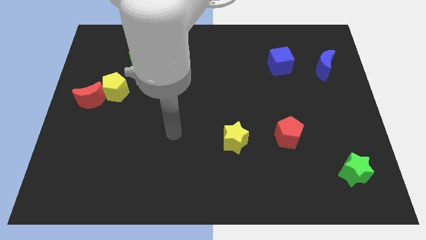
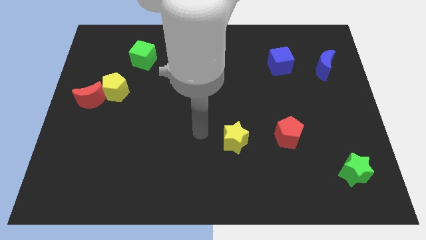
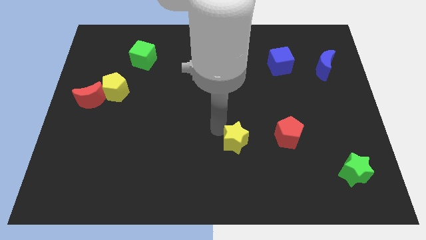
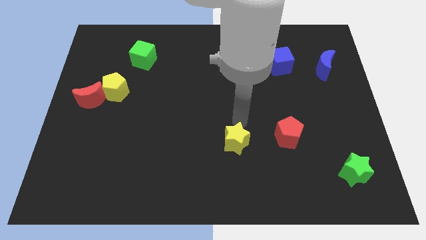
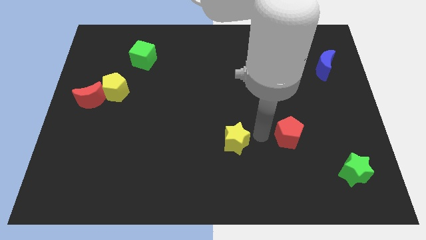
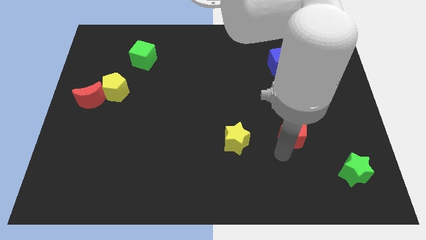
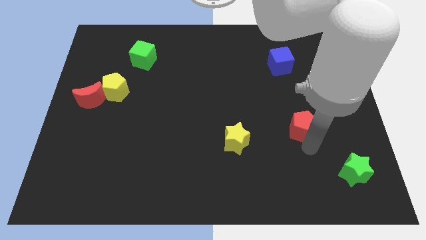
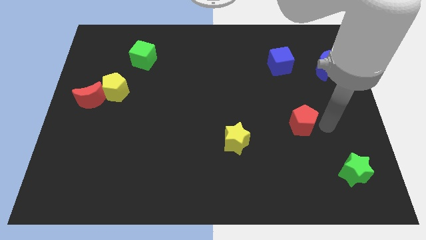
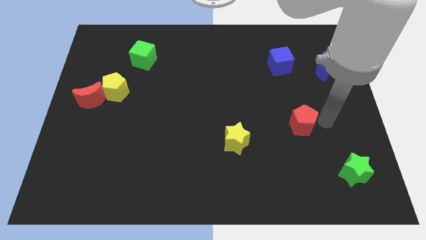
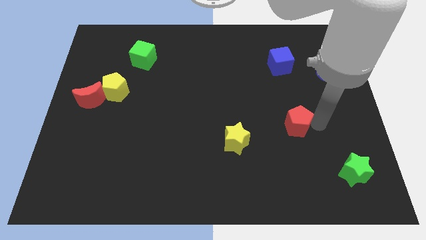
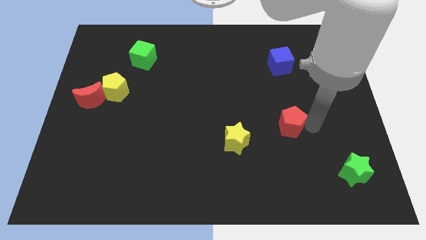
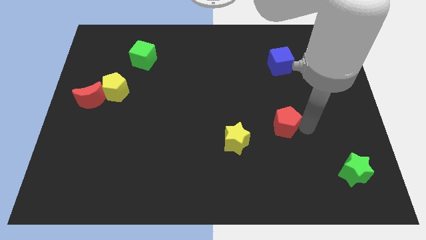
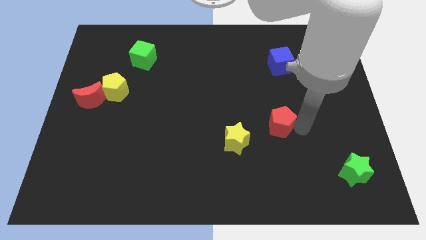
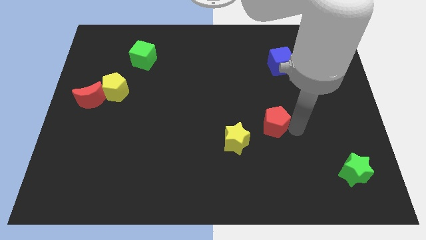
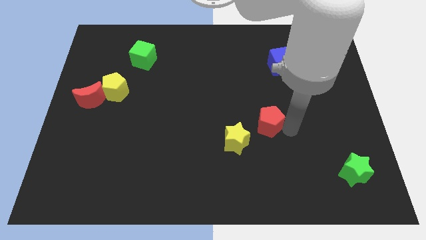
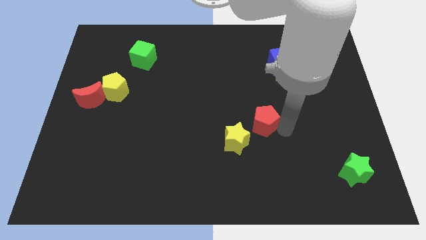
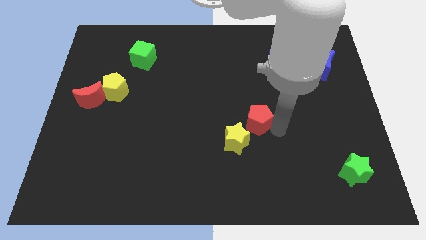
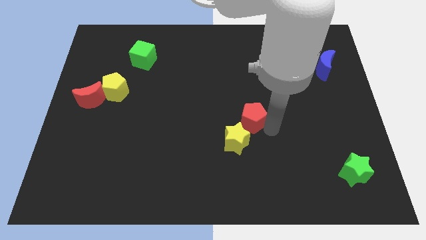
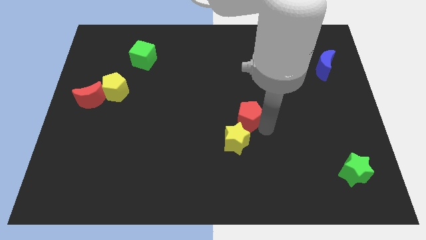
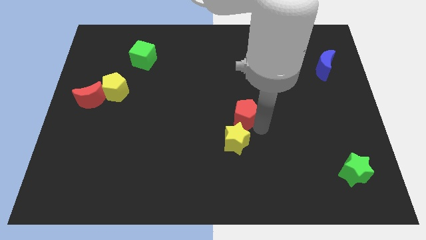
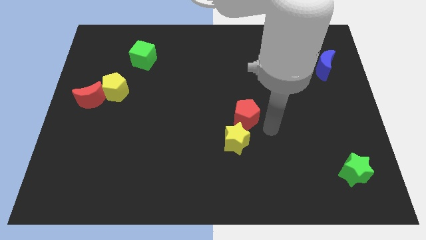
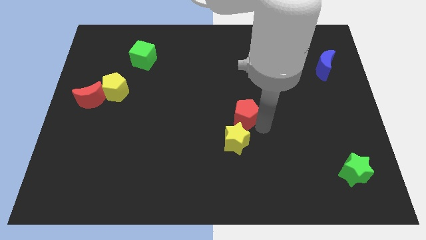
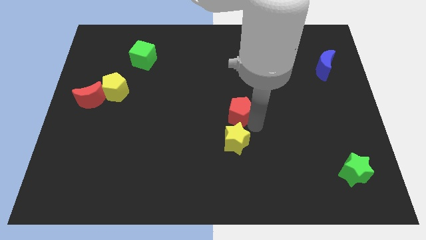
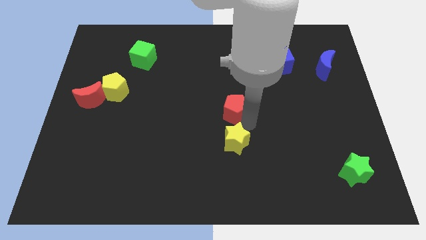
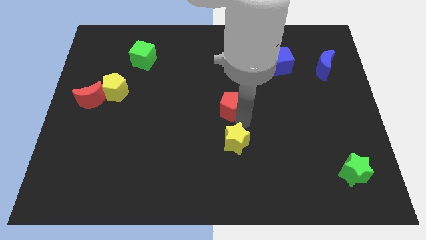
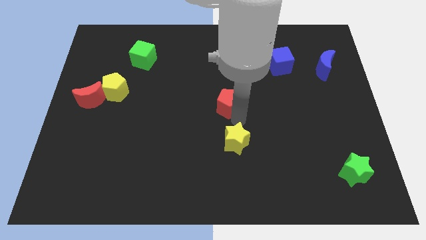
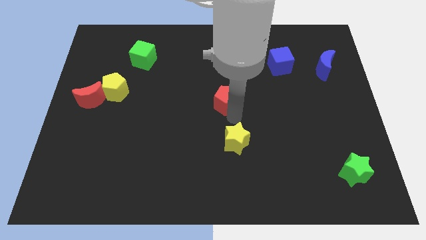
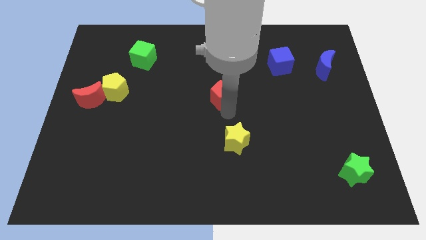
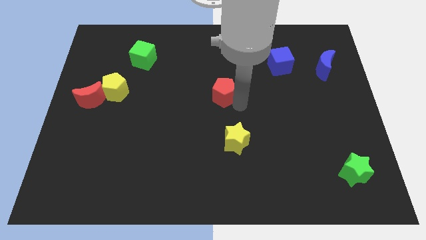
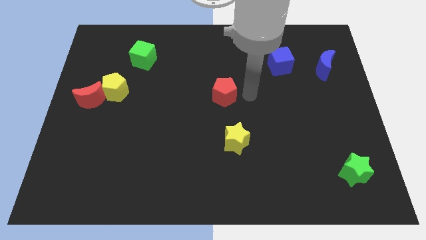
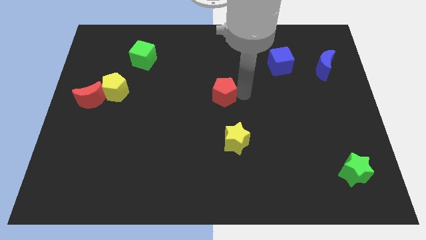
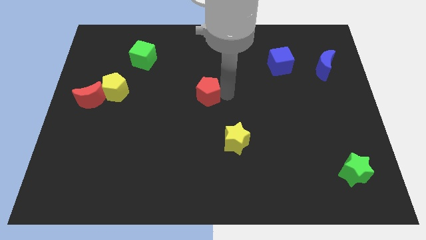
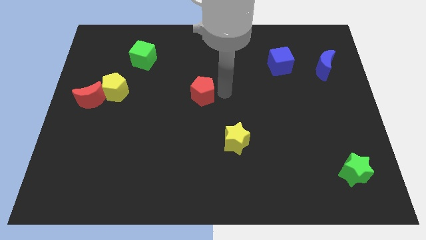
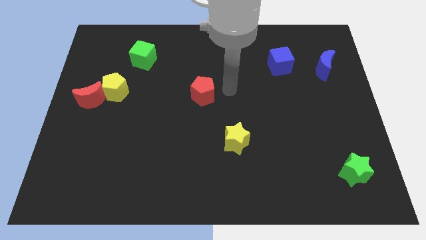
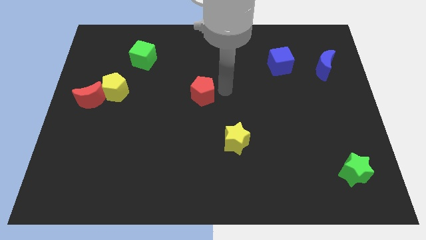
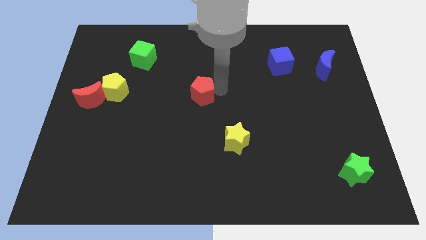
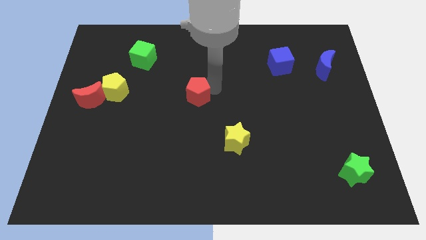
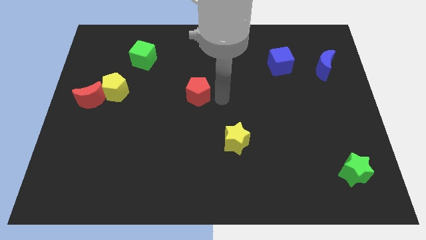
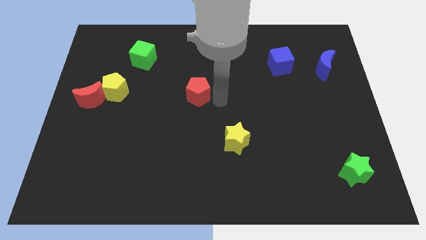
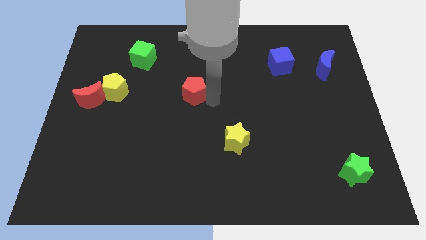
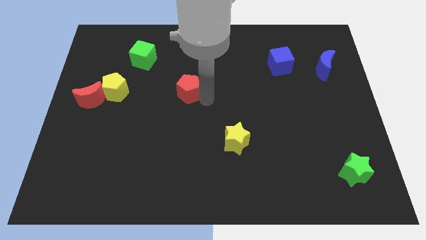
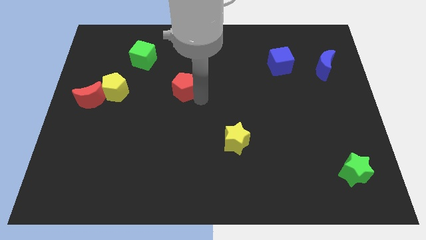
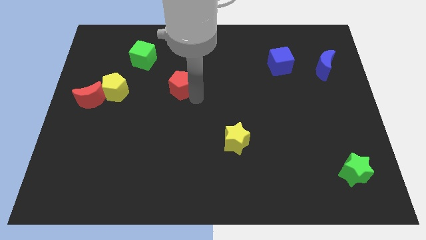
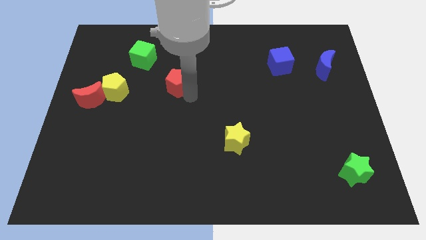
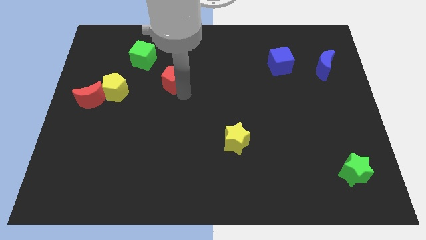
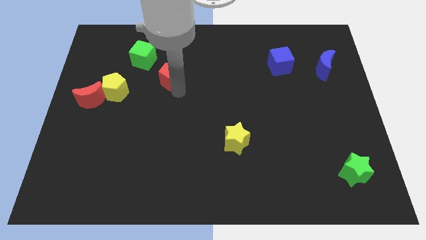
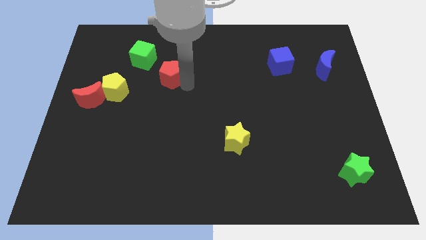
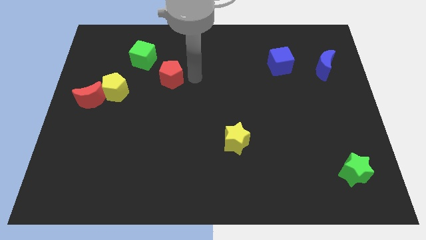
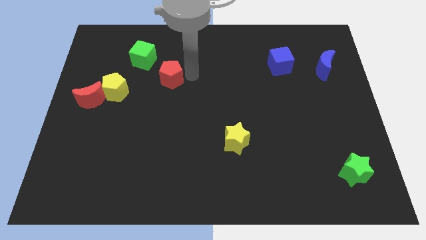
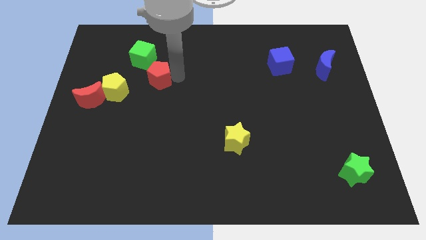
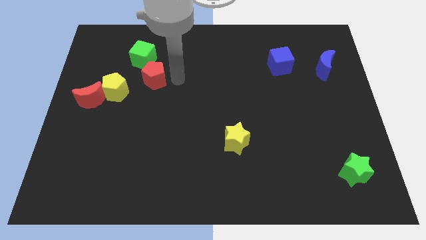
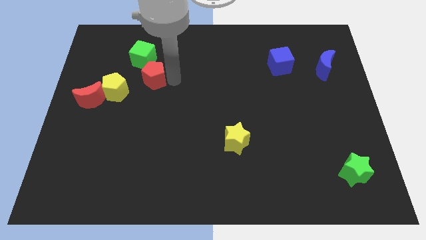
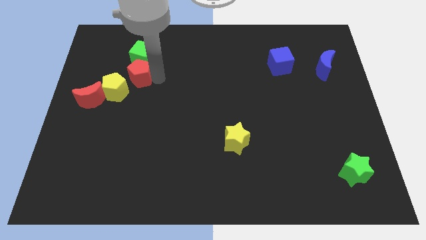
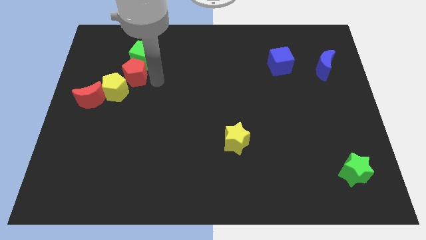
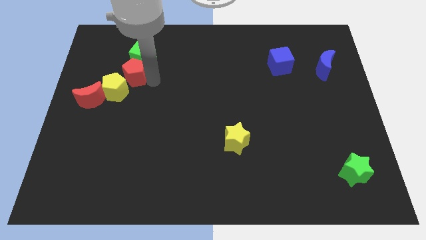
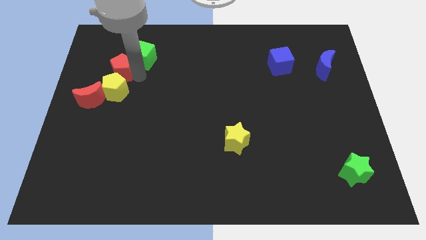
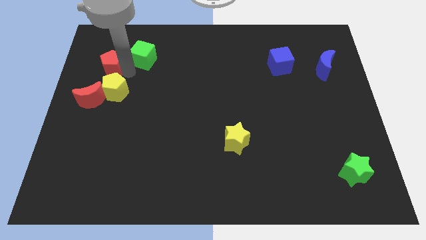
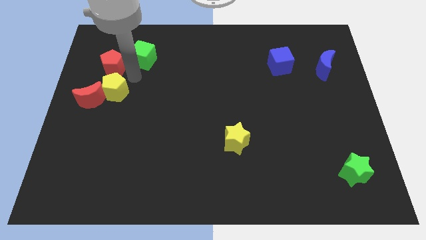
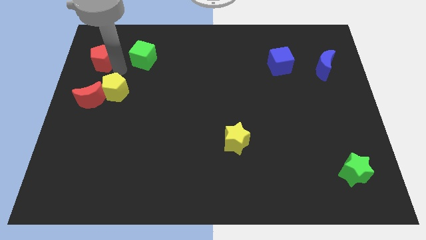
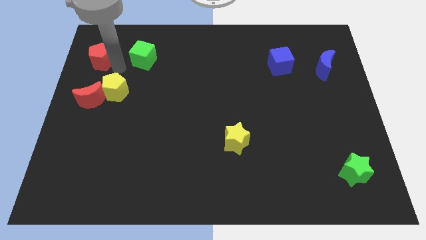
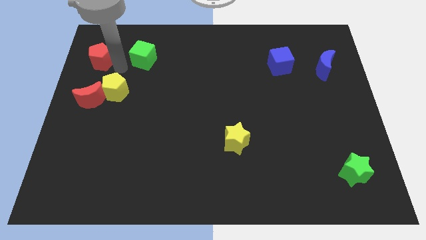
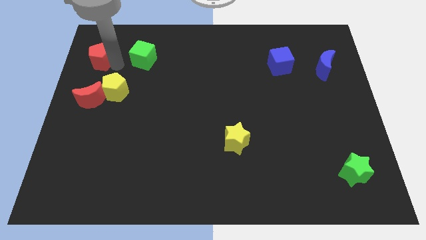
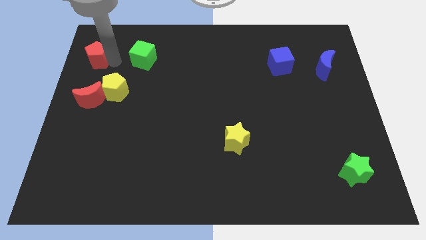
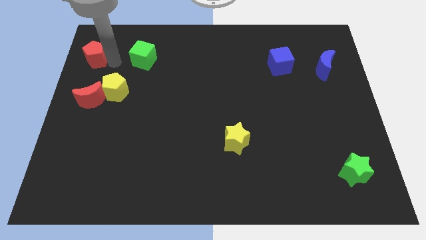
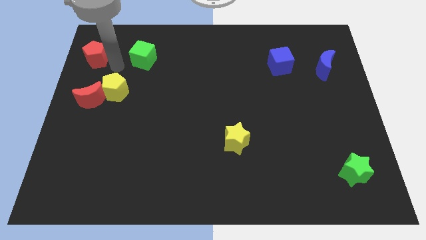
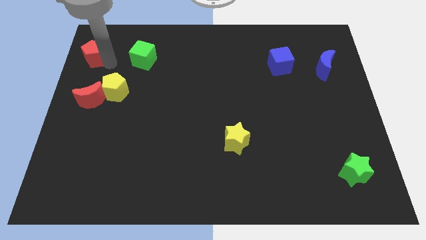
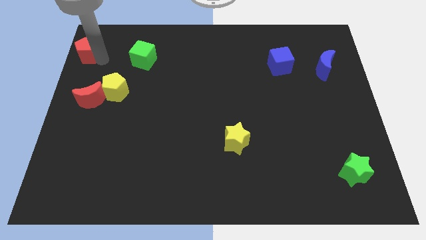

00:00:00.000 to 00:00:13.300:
move the red pentagon to the upper left corner
